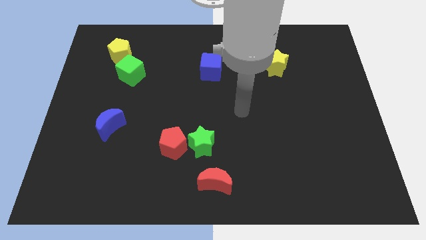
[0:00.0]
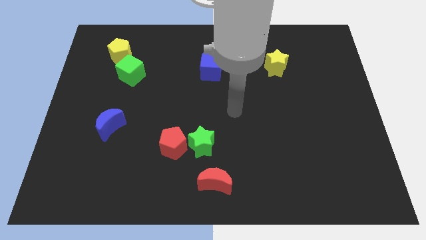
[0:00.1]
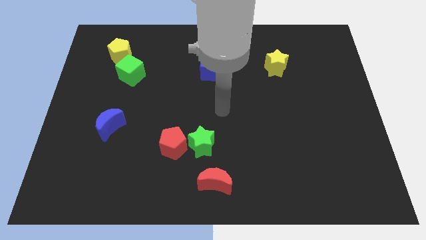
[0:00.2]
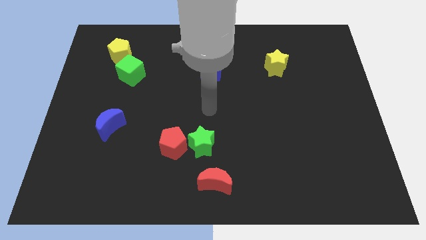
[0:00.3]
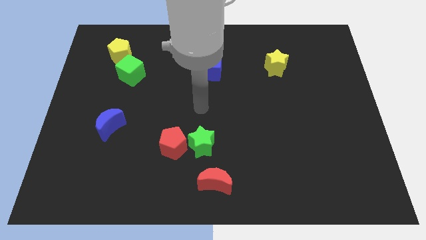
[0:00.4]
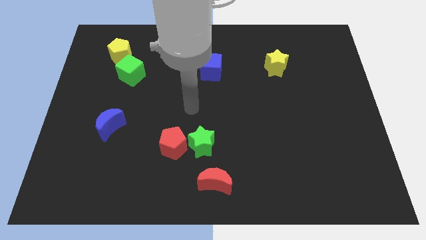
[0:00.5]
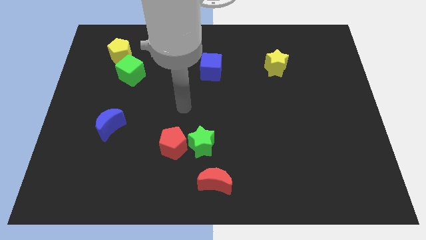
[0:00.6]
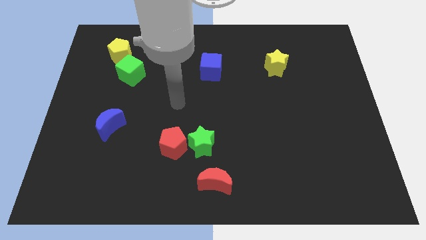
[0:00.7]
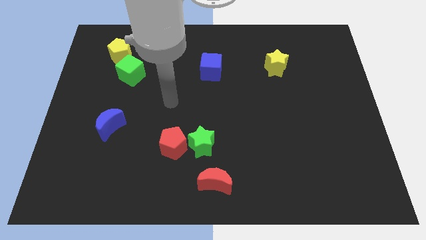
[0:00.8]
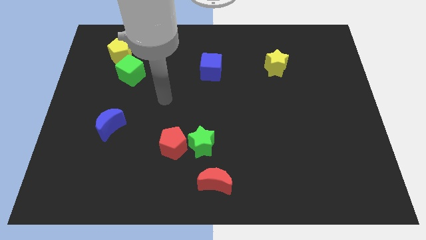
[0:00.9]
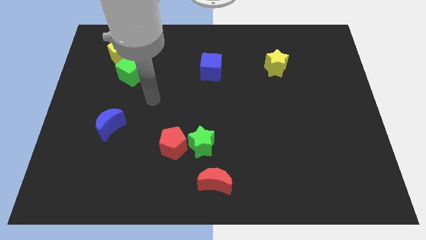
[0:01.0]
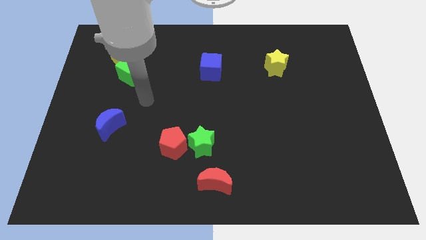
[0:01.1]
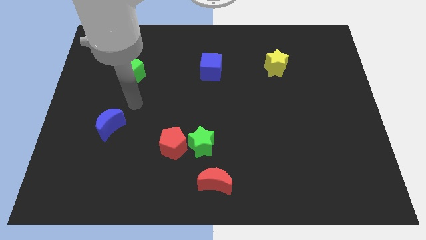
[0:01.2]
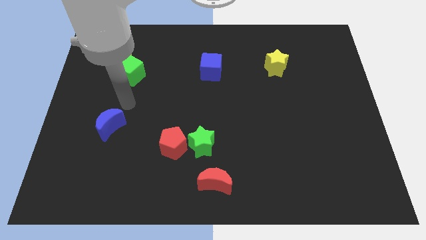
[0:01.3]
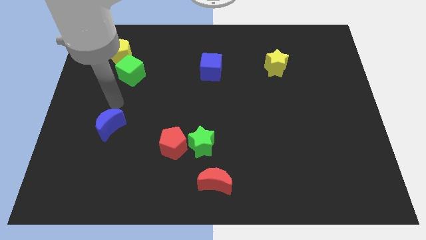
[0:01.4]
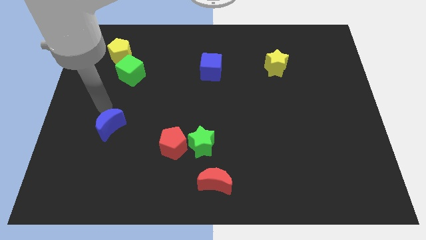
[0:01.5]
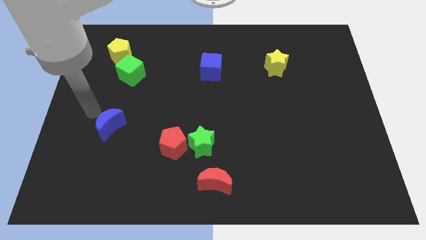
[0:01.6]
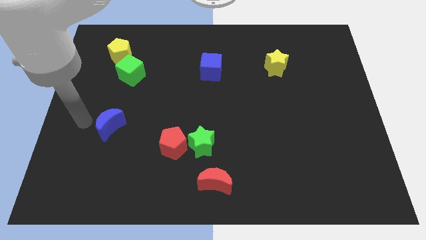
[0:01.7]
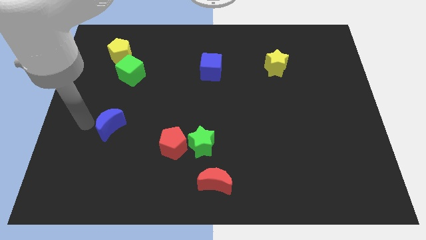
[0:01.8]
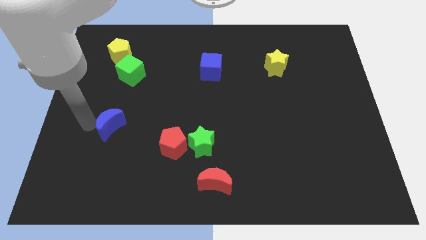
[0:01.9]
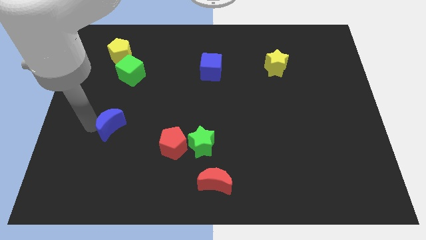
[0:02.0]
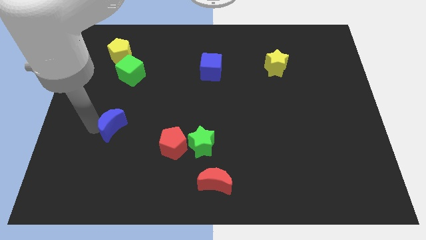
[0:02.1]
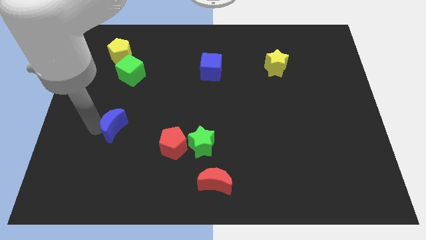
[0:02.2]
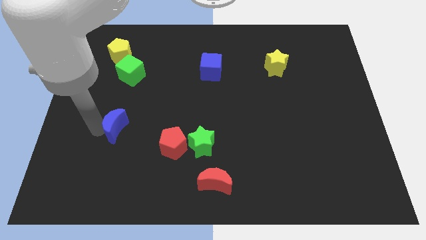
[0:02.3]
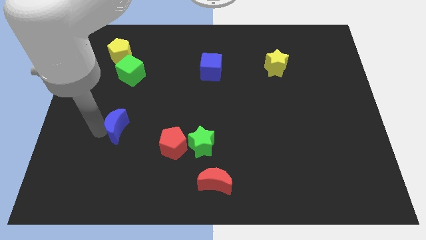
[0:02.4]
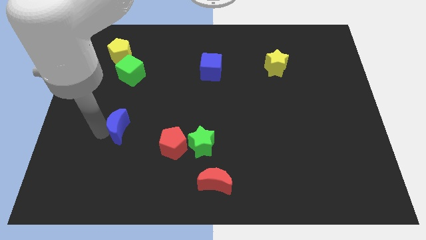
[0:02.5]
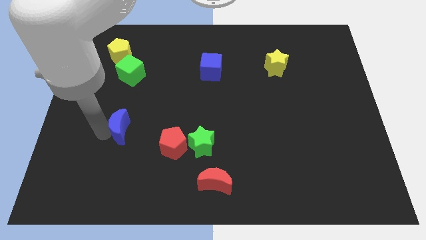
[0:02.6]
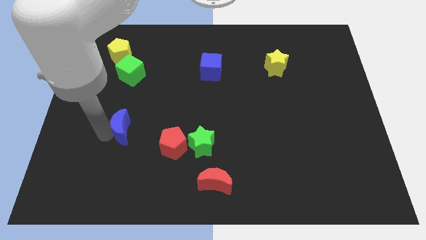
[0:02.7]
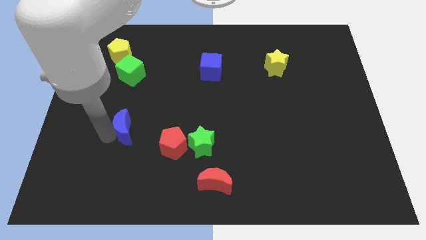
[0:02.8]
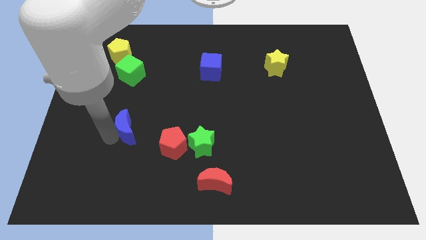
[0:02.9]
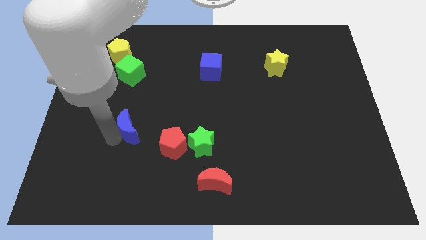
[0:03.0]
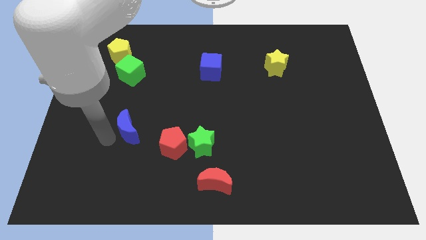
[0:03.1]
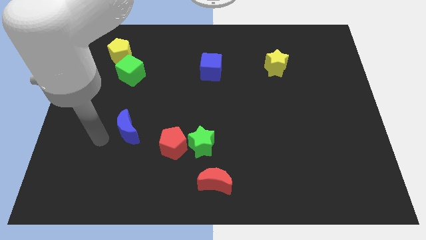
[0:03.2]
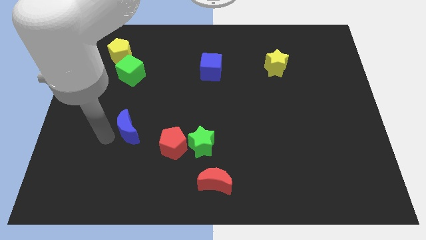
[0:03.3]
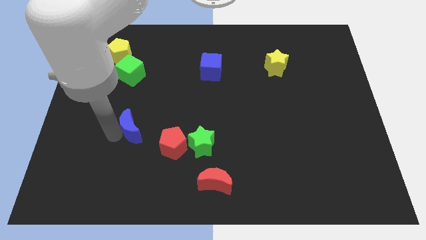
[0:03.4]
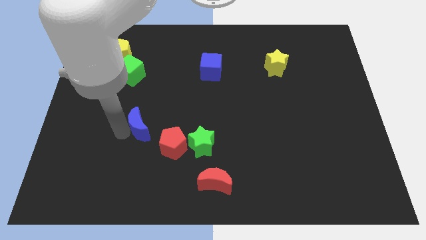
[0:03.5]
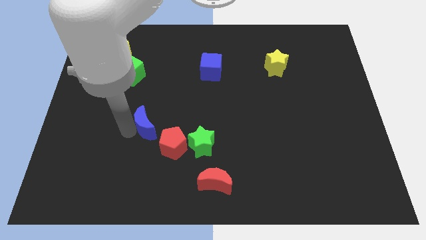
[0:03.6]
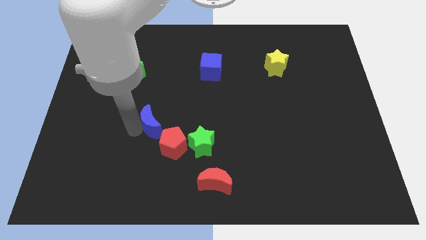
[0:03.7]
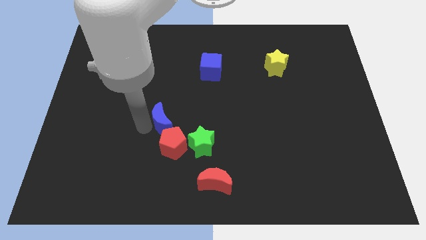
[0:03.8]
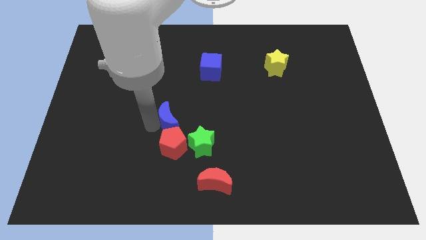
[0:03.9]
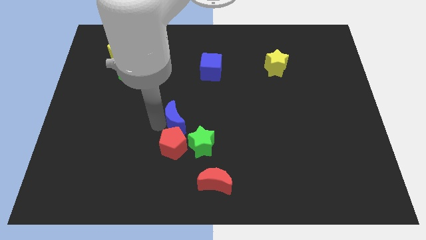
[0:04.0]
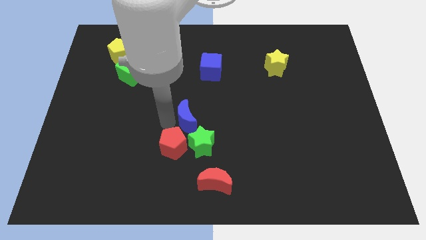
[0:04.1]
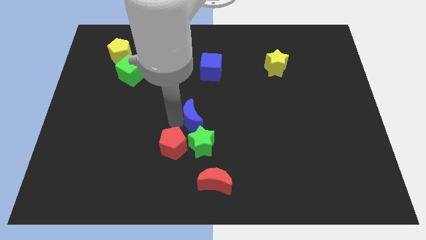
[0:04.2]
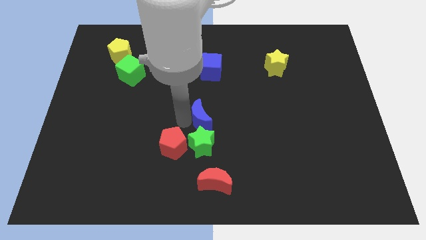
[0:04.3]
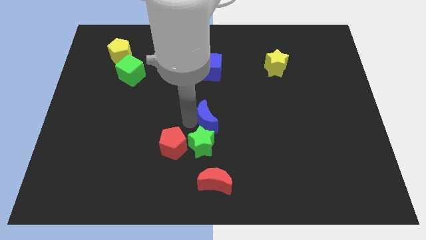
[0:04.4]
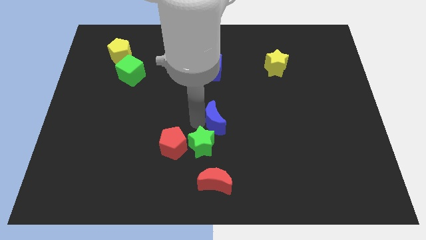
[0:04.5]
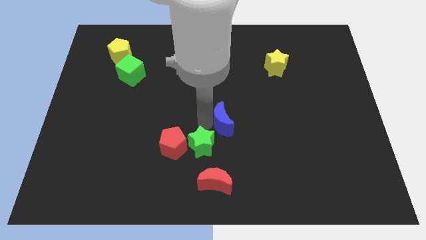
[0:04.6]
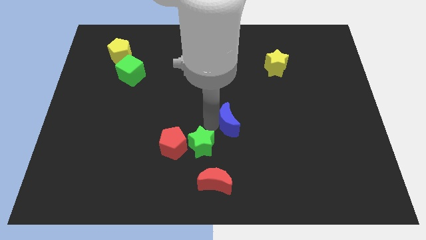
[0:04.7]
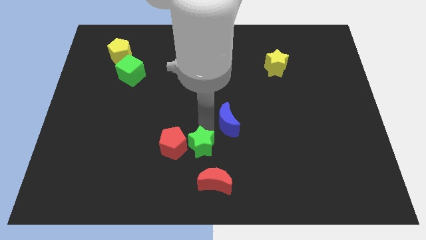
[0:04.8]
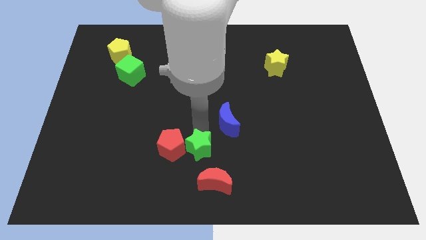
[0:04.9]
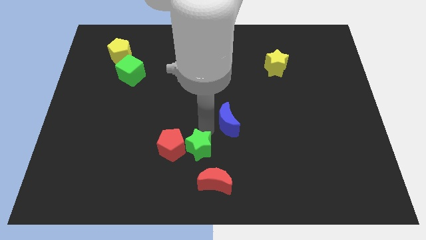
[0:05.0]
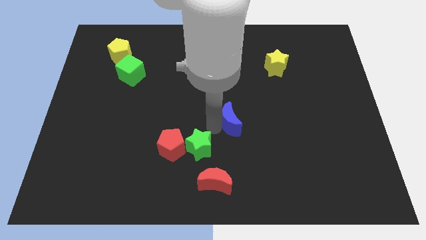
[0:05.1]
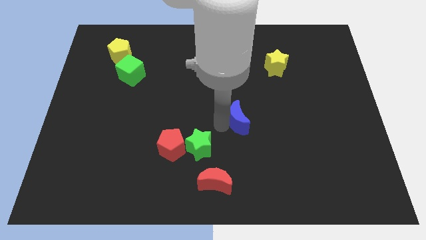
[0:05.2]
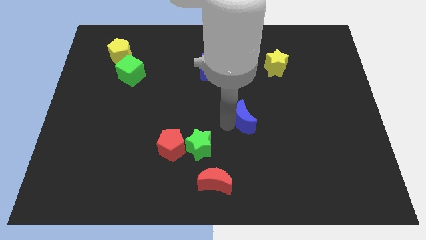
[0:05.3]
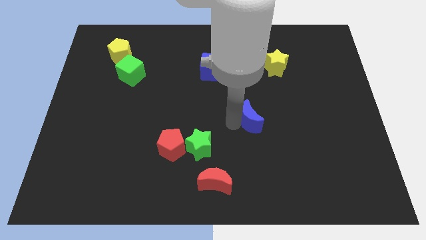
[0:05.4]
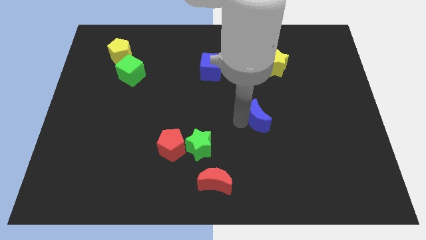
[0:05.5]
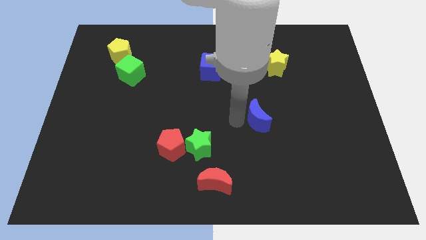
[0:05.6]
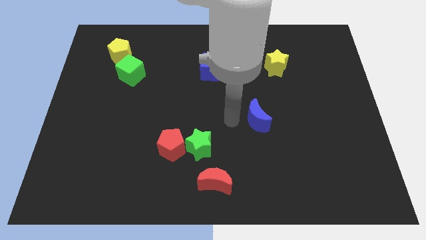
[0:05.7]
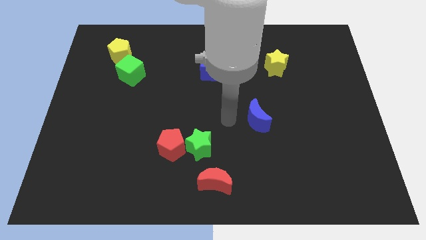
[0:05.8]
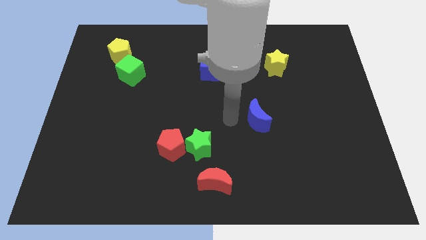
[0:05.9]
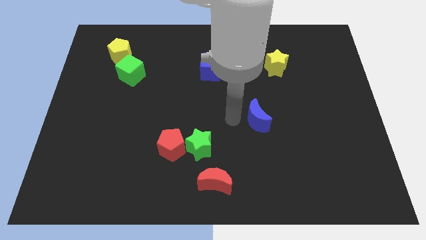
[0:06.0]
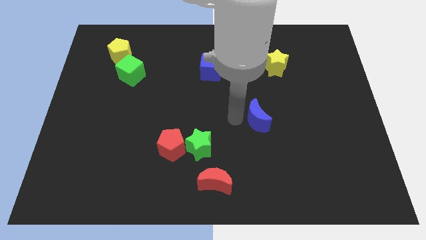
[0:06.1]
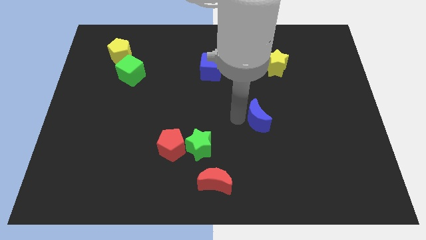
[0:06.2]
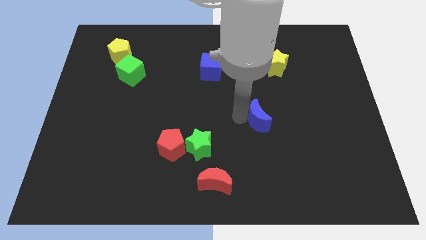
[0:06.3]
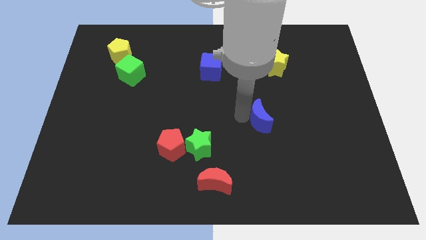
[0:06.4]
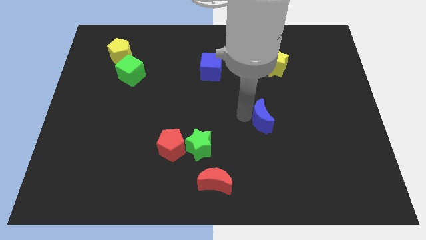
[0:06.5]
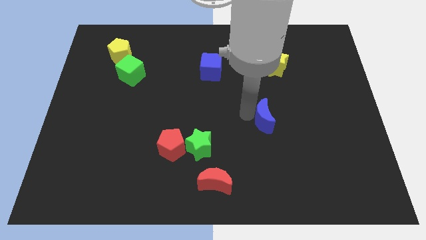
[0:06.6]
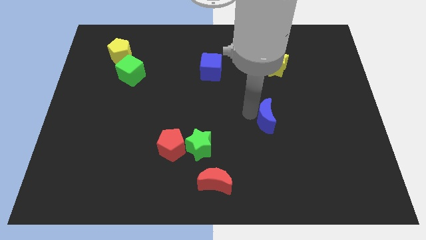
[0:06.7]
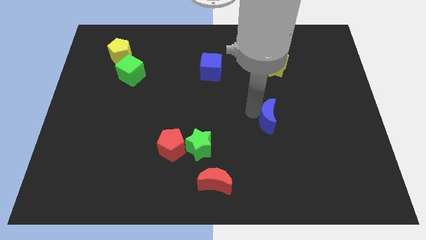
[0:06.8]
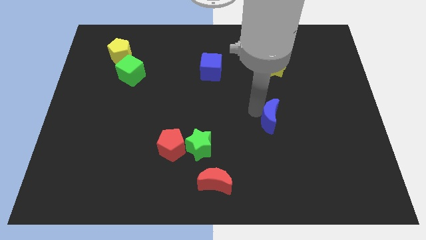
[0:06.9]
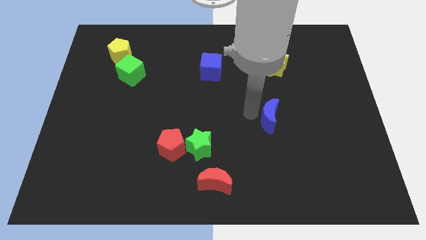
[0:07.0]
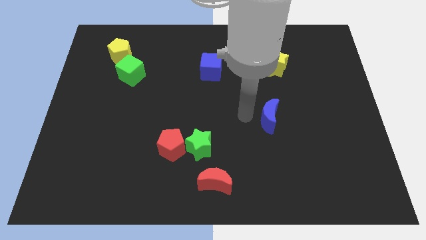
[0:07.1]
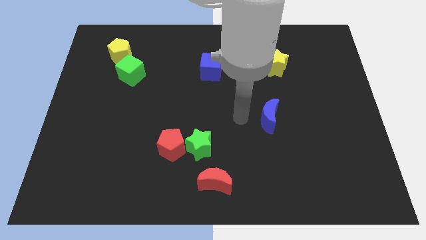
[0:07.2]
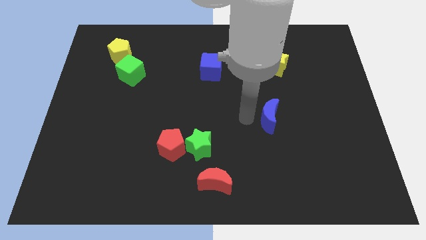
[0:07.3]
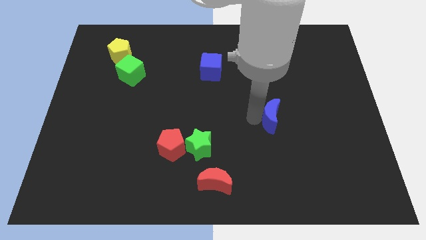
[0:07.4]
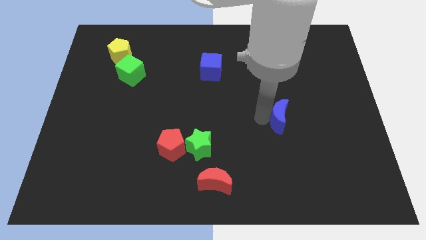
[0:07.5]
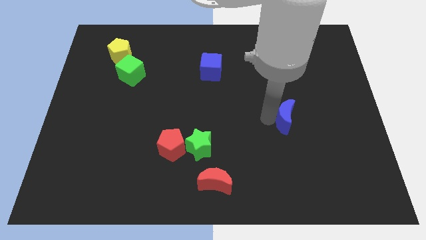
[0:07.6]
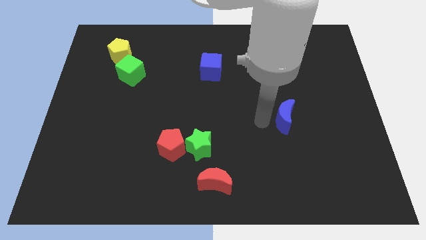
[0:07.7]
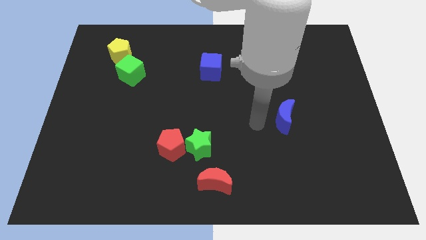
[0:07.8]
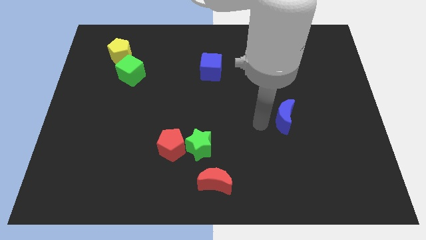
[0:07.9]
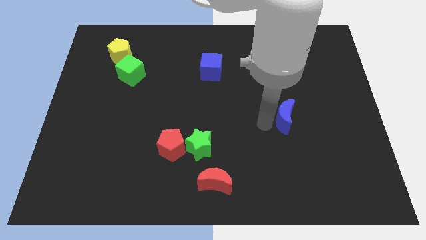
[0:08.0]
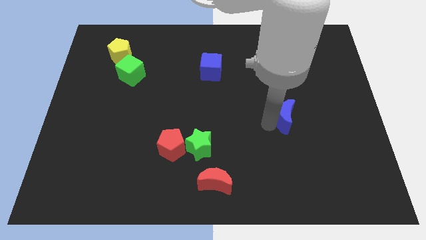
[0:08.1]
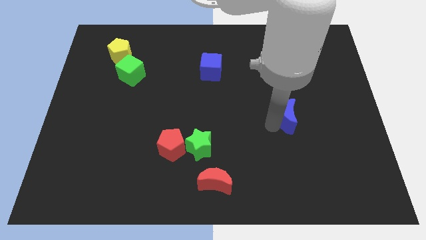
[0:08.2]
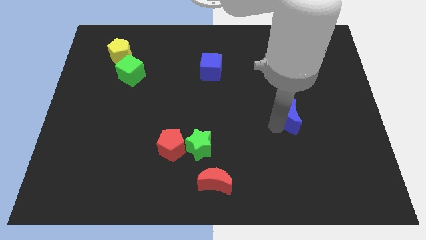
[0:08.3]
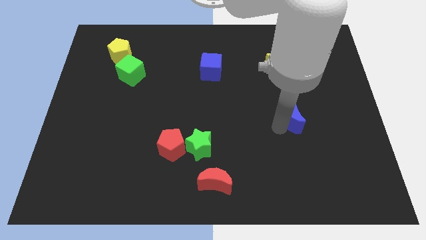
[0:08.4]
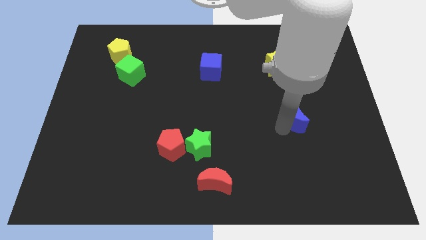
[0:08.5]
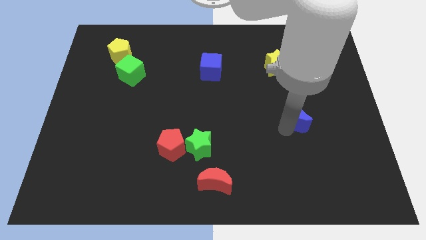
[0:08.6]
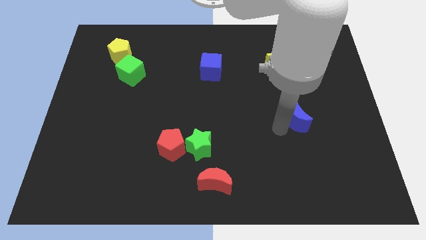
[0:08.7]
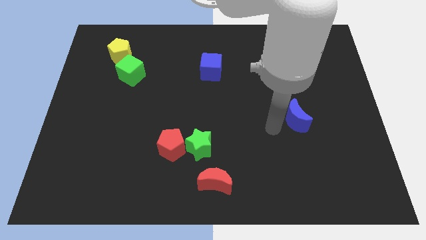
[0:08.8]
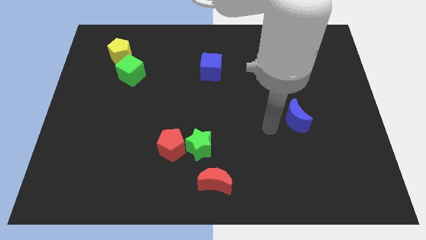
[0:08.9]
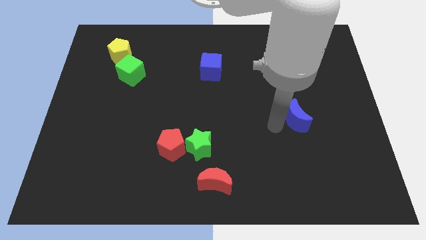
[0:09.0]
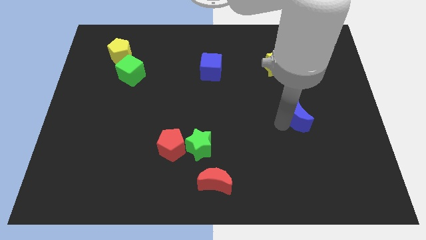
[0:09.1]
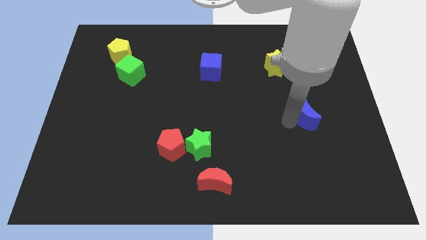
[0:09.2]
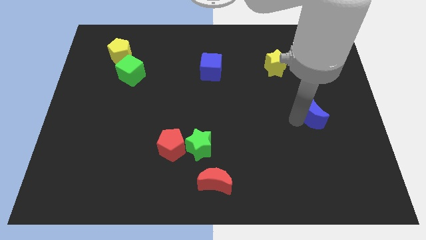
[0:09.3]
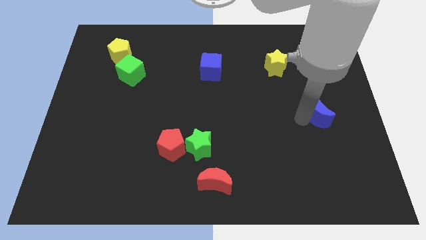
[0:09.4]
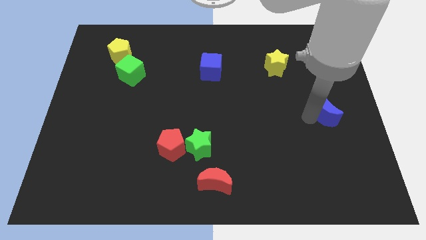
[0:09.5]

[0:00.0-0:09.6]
move the blue moon to the right side of the board
